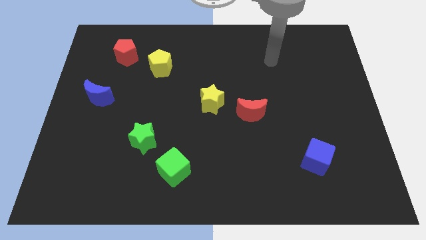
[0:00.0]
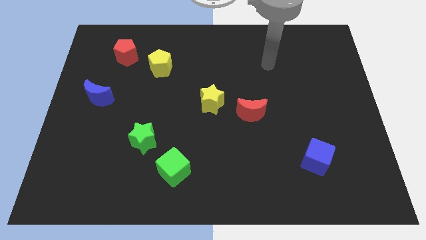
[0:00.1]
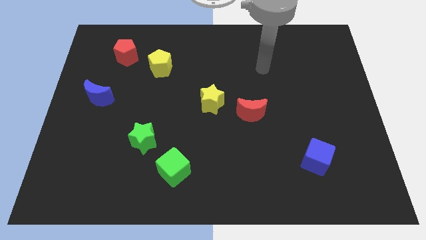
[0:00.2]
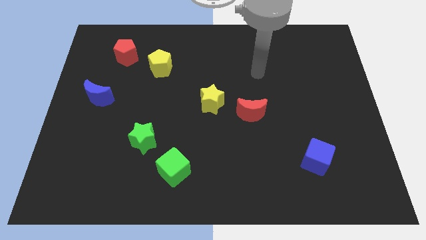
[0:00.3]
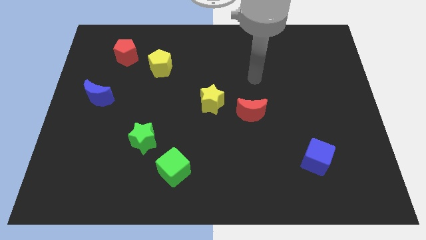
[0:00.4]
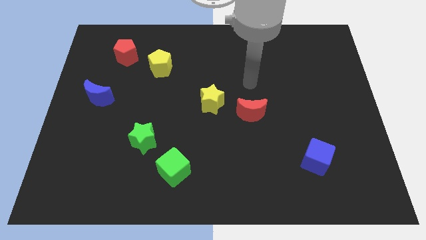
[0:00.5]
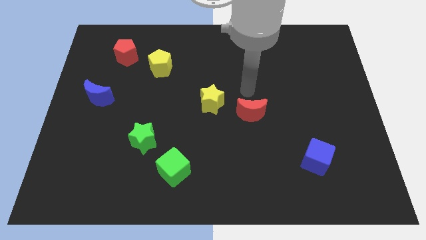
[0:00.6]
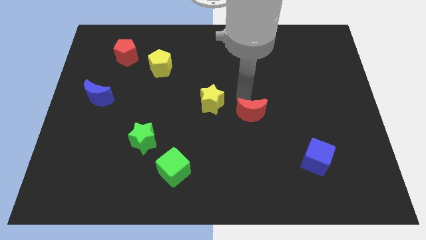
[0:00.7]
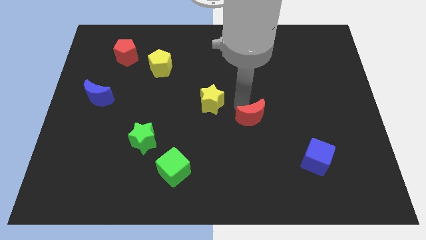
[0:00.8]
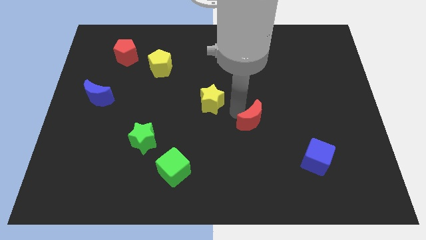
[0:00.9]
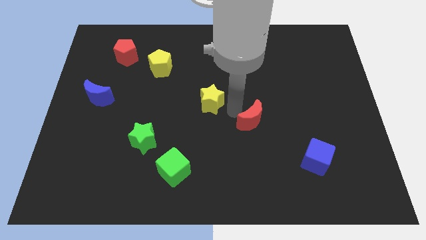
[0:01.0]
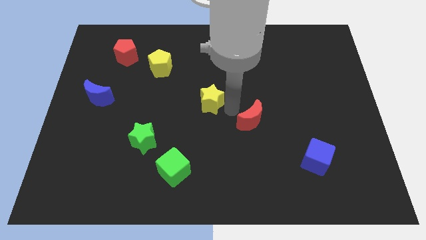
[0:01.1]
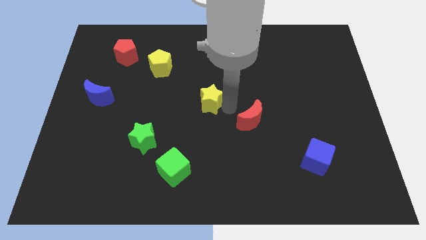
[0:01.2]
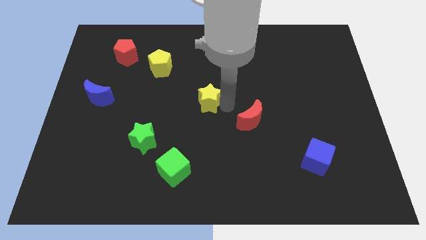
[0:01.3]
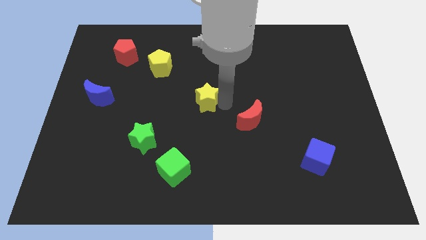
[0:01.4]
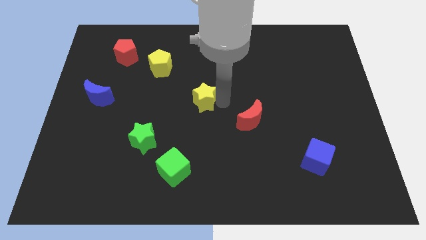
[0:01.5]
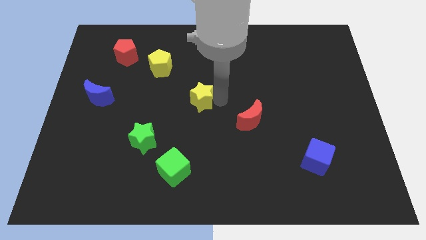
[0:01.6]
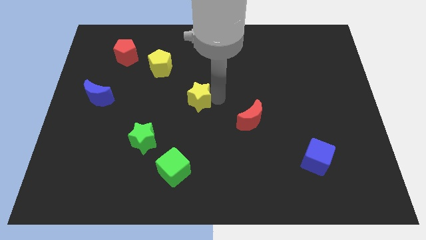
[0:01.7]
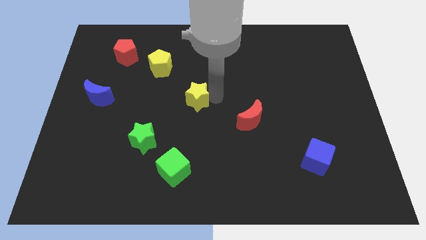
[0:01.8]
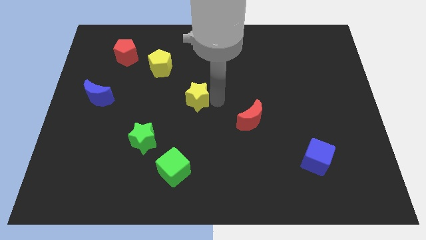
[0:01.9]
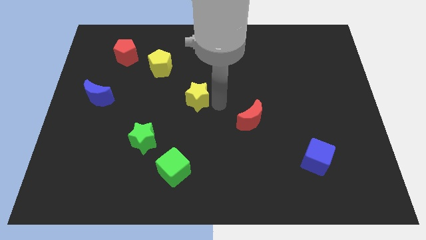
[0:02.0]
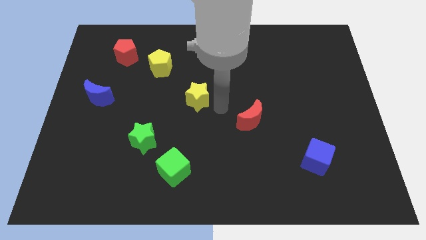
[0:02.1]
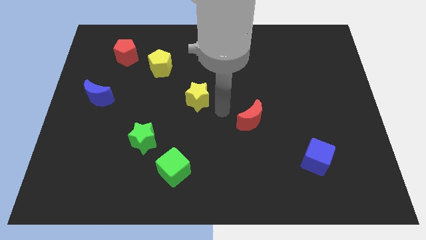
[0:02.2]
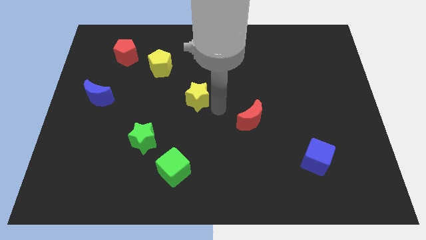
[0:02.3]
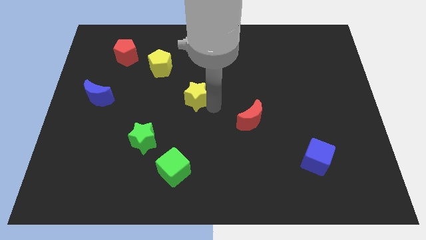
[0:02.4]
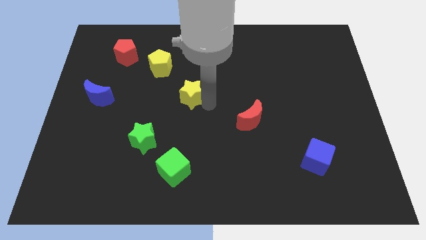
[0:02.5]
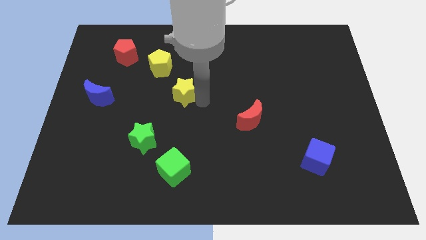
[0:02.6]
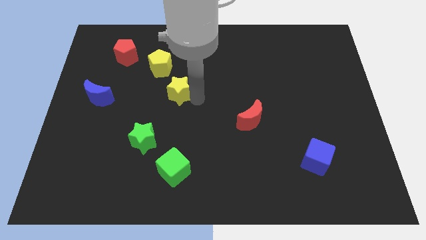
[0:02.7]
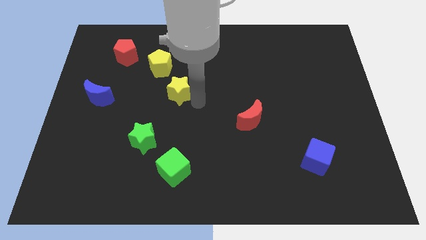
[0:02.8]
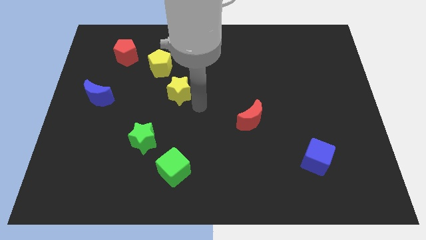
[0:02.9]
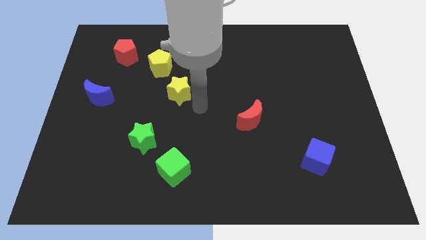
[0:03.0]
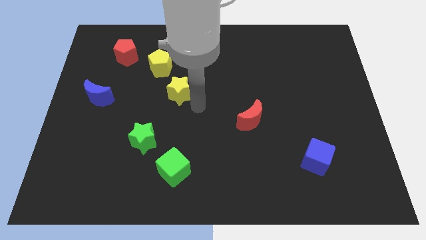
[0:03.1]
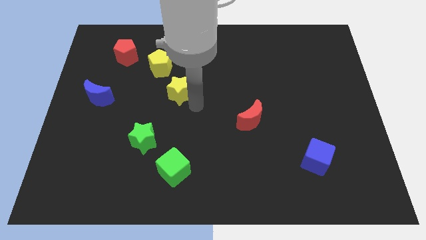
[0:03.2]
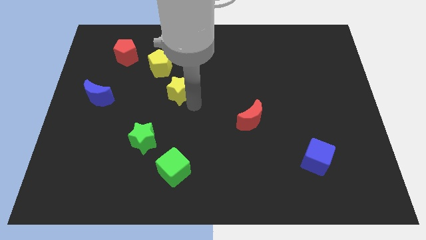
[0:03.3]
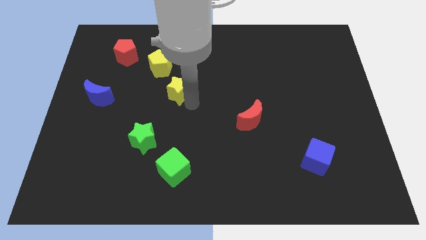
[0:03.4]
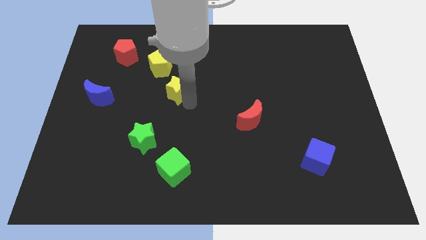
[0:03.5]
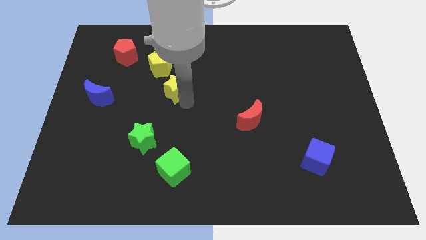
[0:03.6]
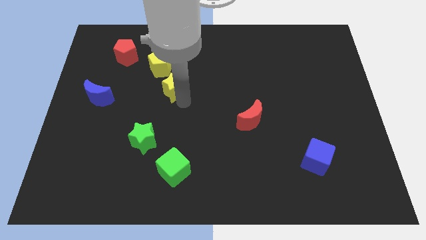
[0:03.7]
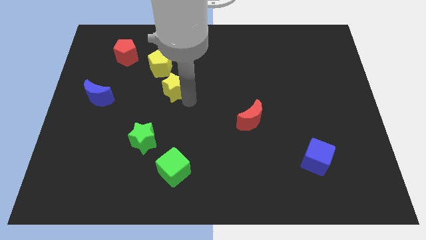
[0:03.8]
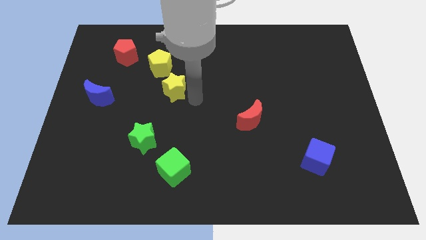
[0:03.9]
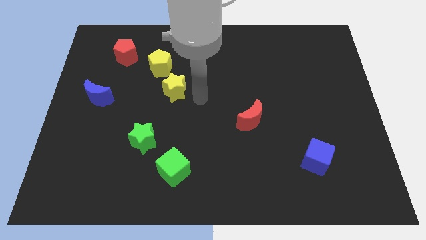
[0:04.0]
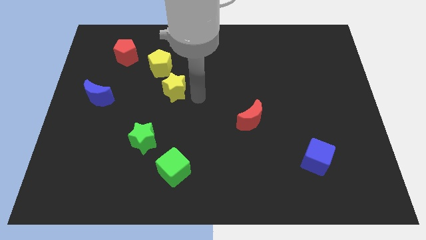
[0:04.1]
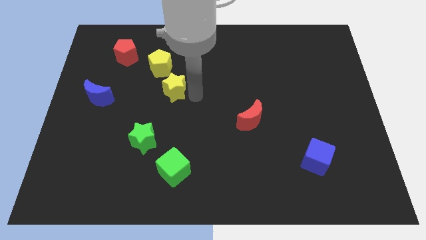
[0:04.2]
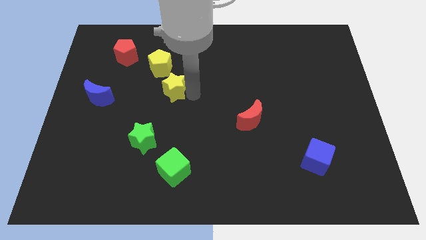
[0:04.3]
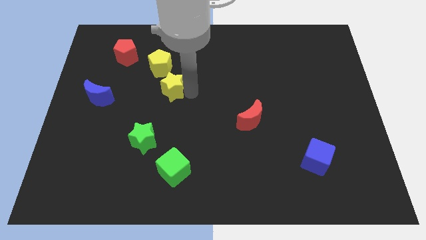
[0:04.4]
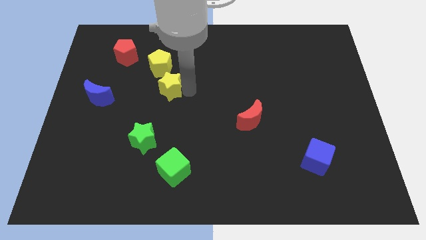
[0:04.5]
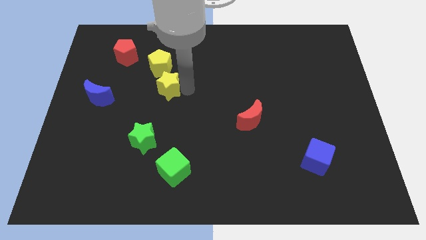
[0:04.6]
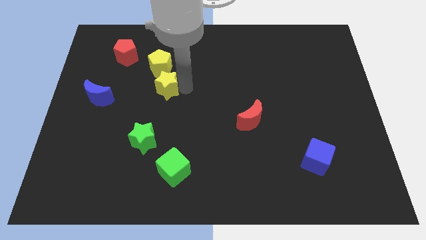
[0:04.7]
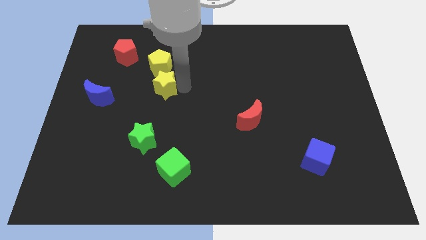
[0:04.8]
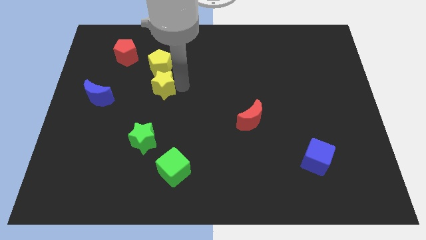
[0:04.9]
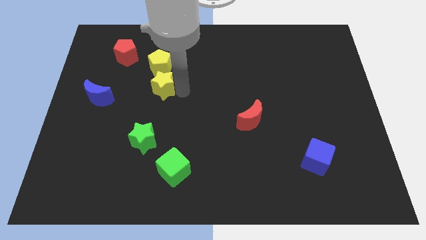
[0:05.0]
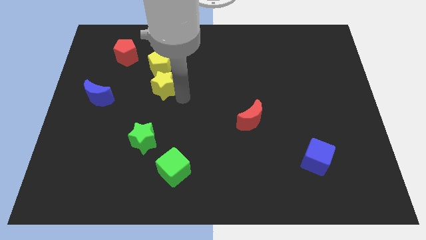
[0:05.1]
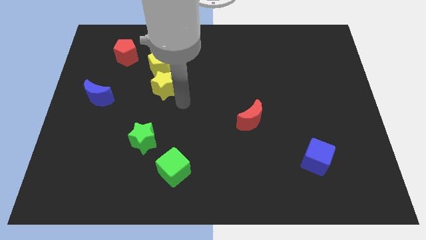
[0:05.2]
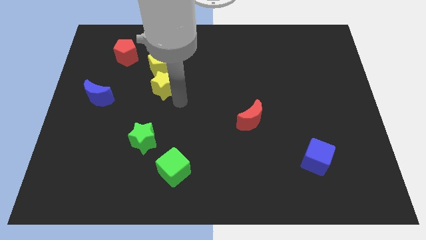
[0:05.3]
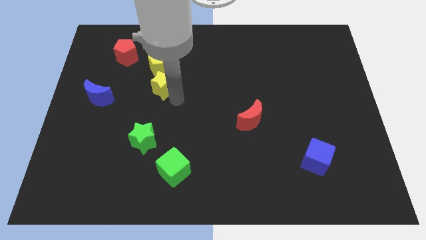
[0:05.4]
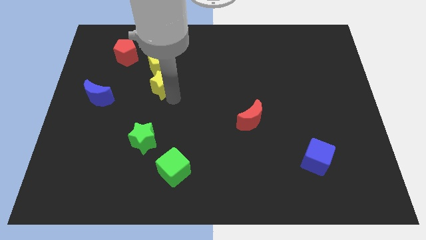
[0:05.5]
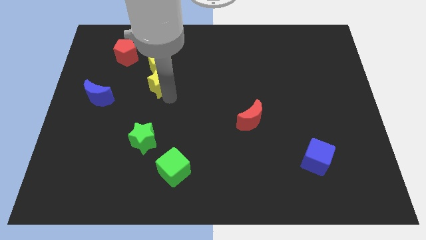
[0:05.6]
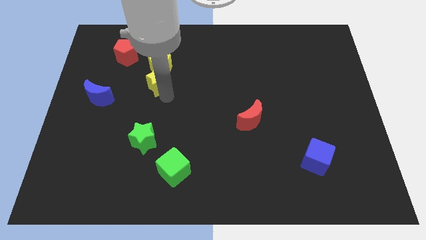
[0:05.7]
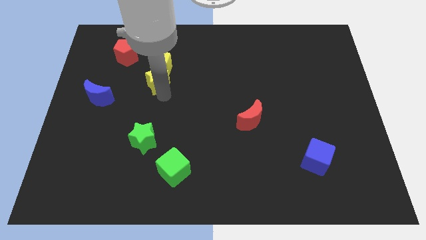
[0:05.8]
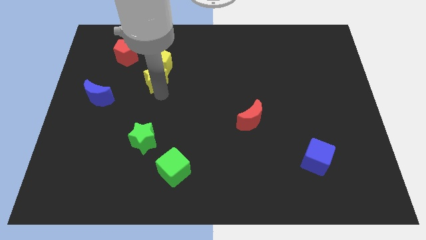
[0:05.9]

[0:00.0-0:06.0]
slide the yellow star to the bottom right side of the red pentagon

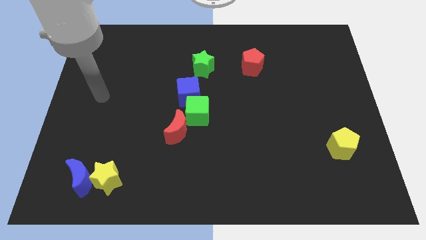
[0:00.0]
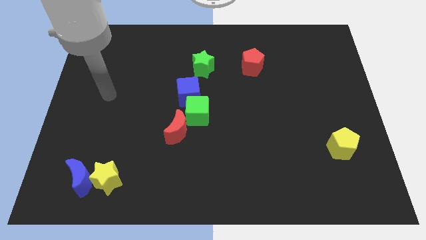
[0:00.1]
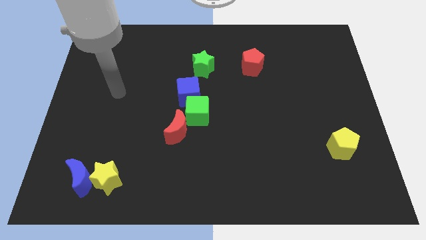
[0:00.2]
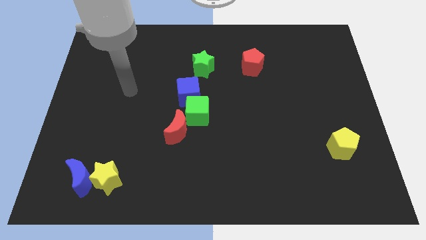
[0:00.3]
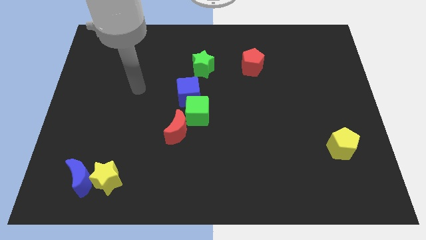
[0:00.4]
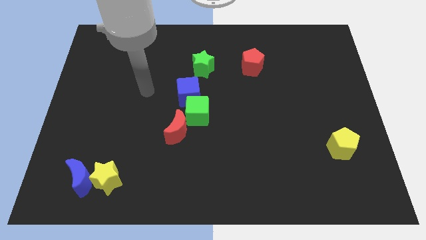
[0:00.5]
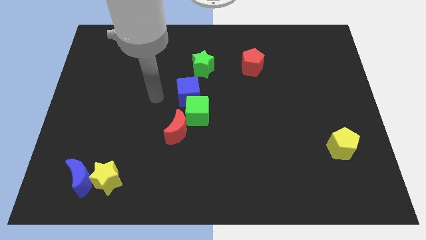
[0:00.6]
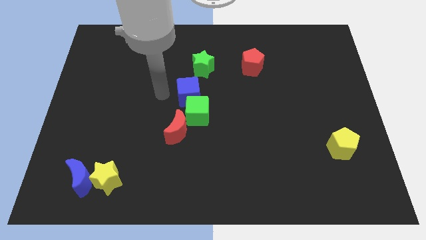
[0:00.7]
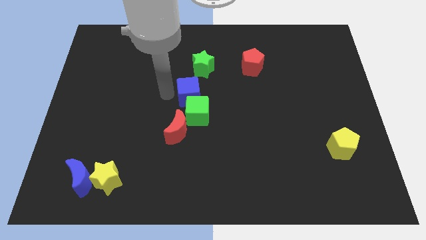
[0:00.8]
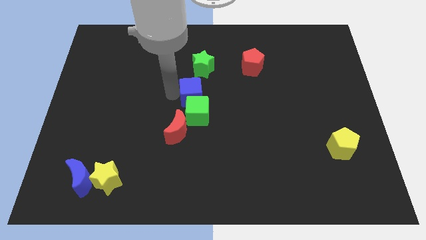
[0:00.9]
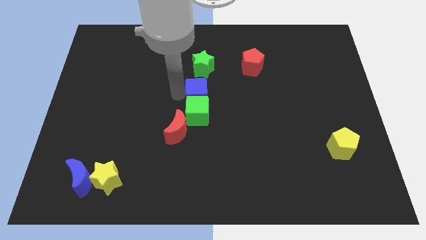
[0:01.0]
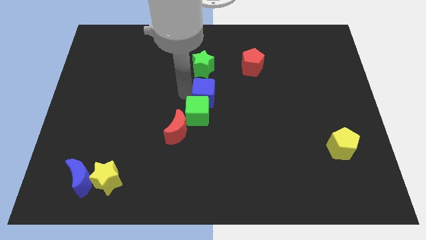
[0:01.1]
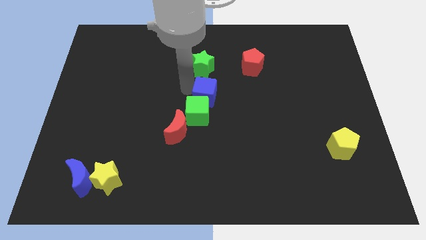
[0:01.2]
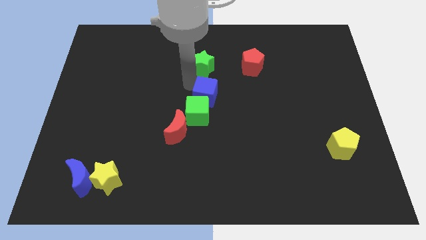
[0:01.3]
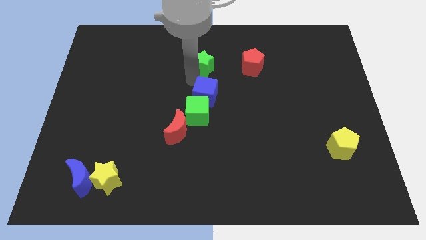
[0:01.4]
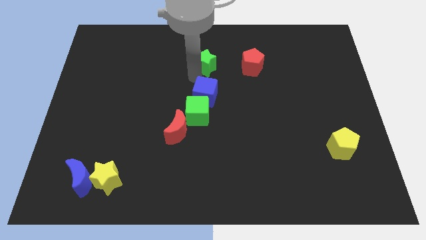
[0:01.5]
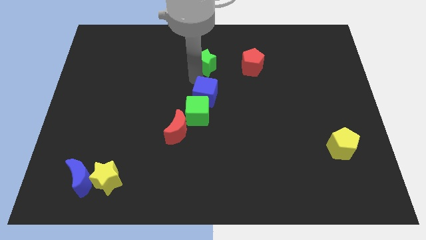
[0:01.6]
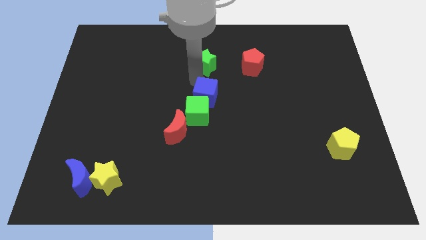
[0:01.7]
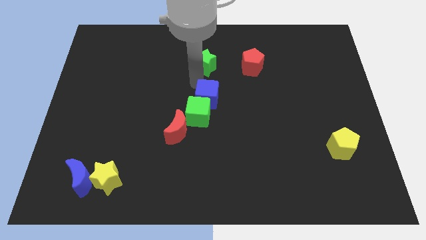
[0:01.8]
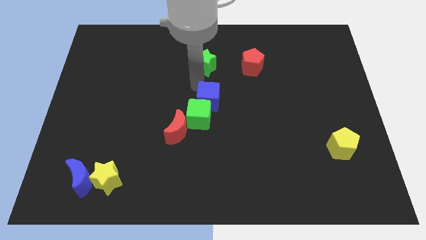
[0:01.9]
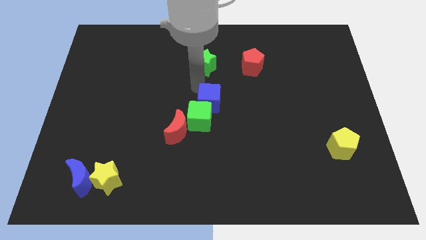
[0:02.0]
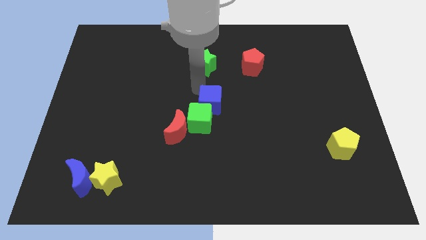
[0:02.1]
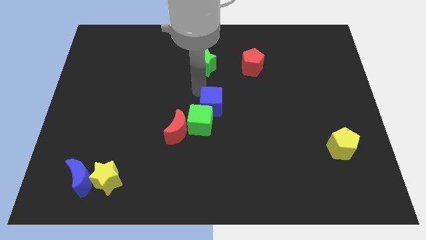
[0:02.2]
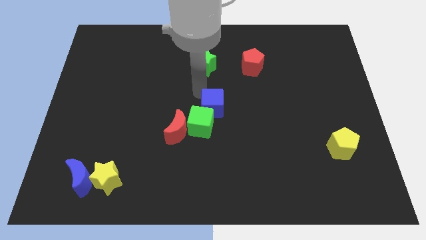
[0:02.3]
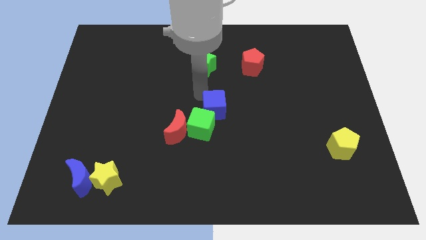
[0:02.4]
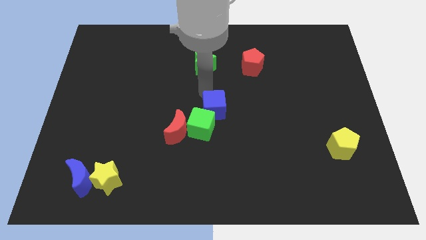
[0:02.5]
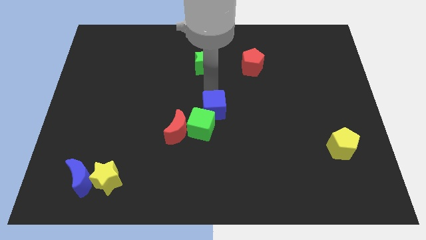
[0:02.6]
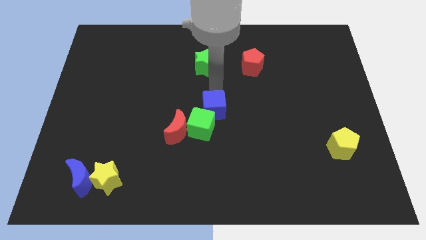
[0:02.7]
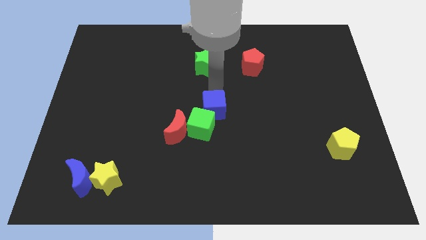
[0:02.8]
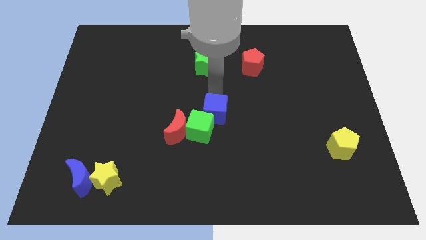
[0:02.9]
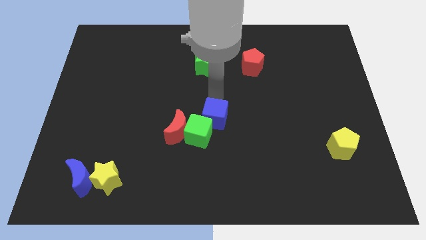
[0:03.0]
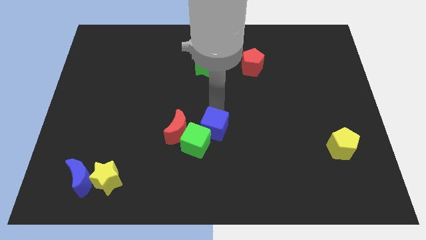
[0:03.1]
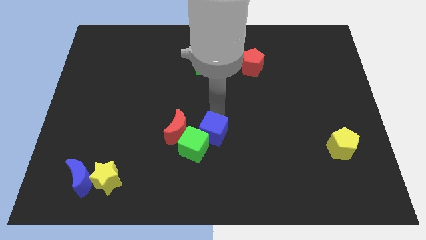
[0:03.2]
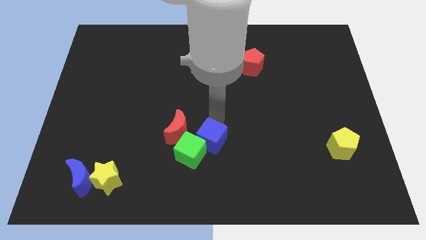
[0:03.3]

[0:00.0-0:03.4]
move the blue cube diagonally down and to the right of the red moon
